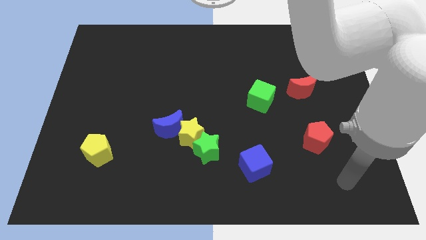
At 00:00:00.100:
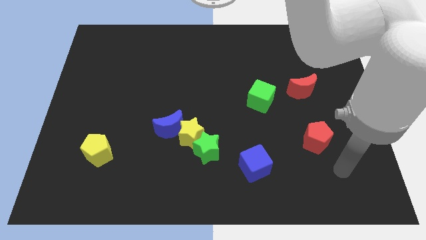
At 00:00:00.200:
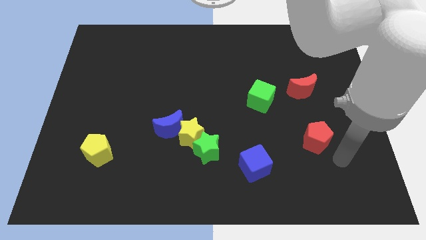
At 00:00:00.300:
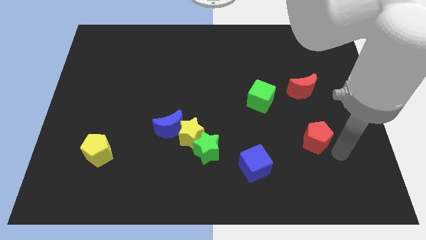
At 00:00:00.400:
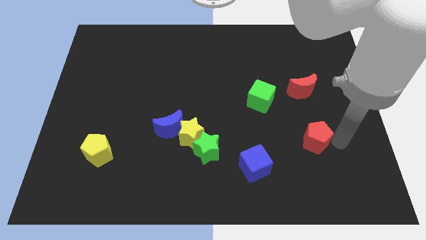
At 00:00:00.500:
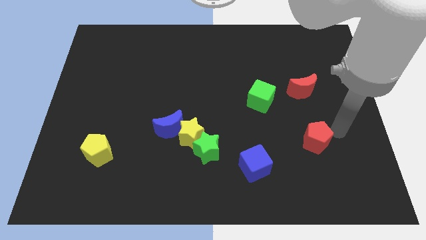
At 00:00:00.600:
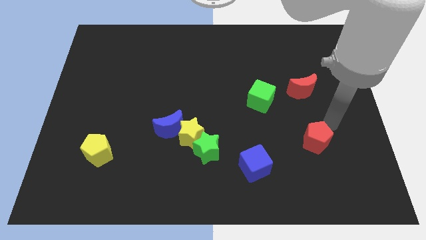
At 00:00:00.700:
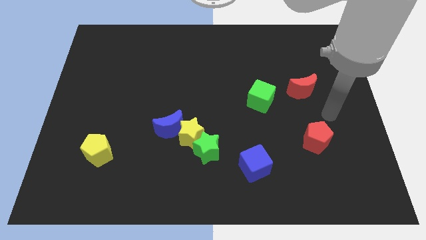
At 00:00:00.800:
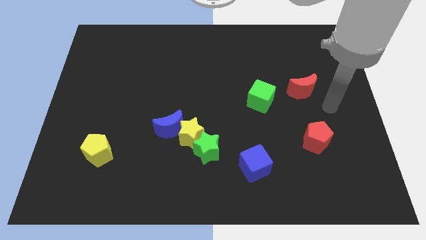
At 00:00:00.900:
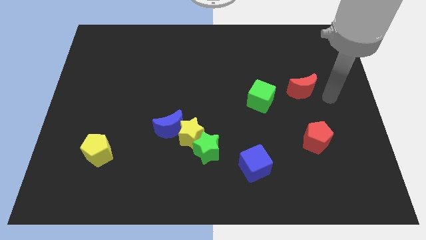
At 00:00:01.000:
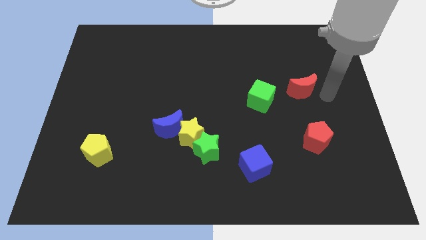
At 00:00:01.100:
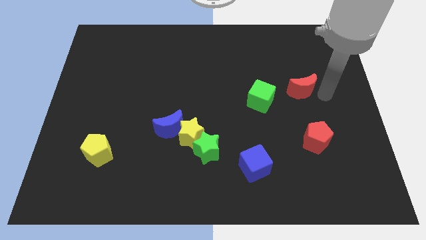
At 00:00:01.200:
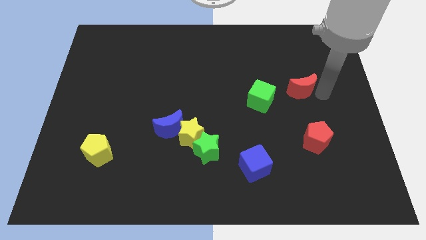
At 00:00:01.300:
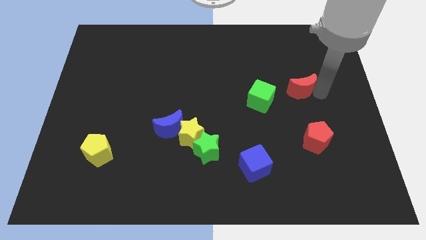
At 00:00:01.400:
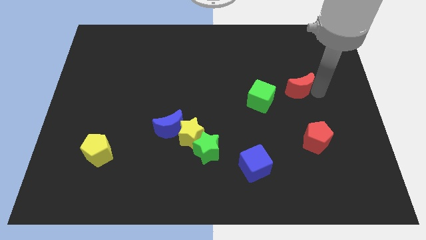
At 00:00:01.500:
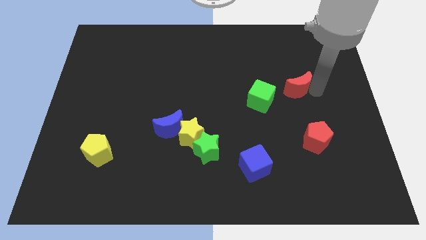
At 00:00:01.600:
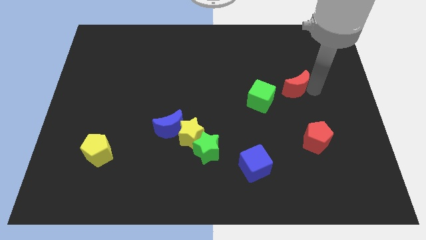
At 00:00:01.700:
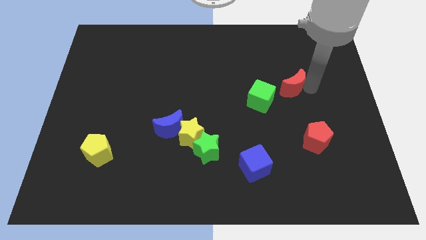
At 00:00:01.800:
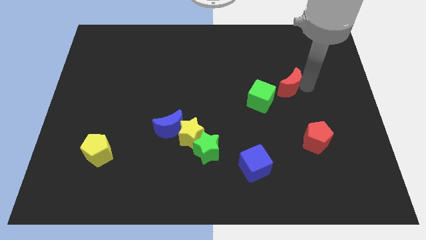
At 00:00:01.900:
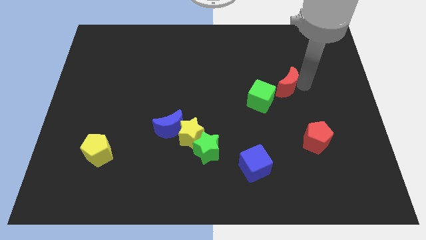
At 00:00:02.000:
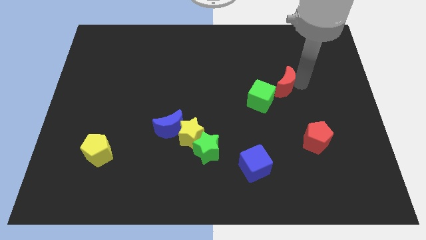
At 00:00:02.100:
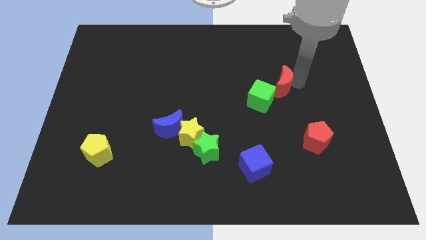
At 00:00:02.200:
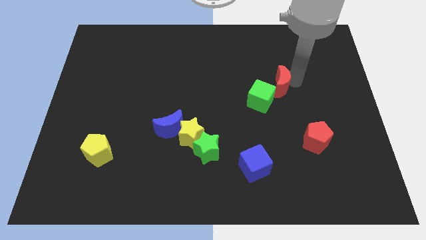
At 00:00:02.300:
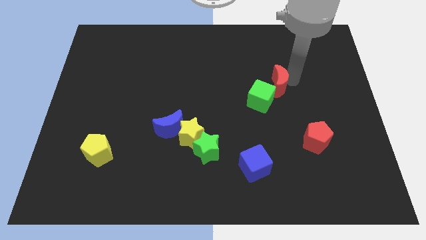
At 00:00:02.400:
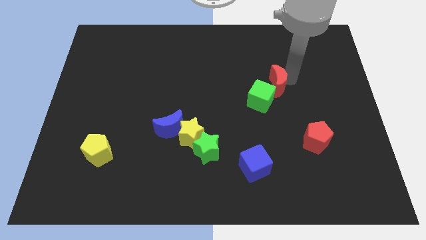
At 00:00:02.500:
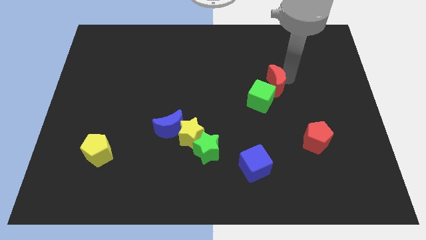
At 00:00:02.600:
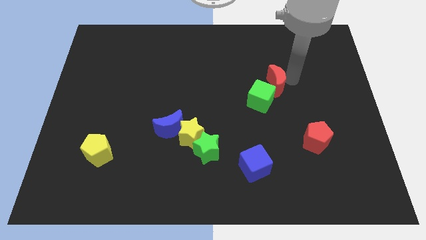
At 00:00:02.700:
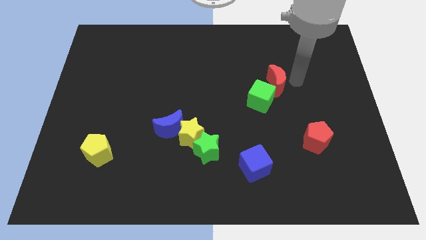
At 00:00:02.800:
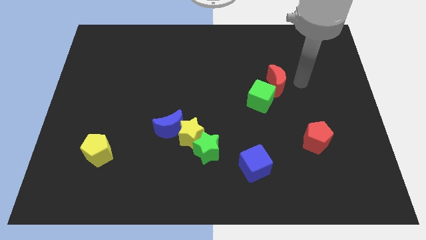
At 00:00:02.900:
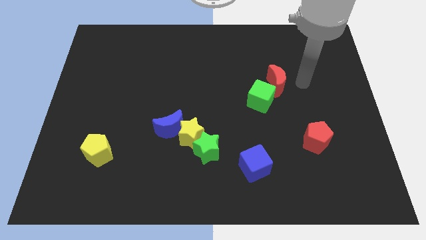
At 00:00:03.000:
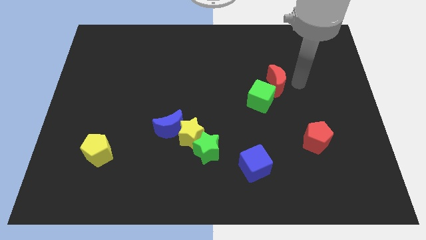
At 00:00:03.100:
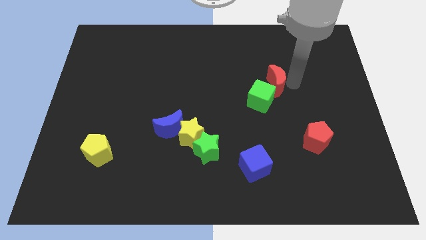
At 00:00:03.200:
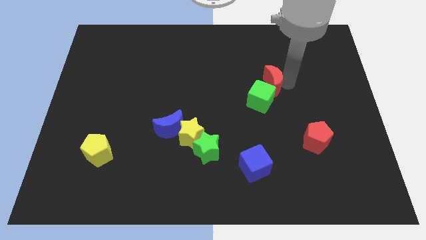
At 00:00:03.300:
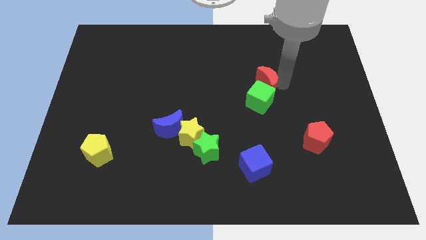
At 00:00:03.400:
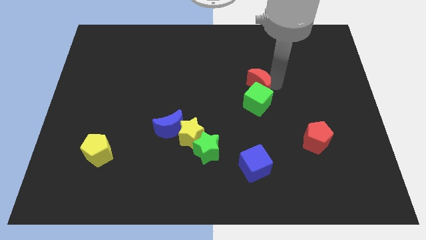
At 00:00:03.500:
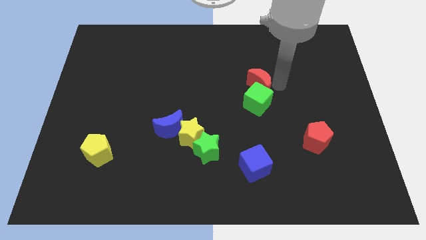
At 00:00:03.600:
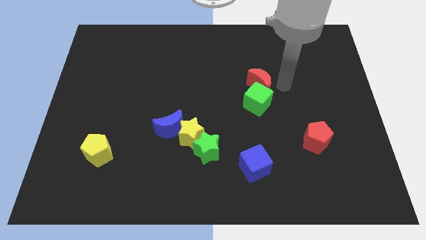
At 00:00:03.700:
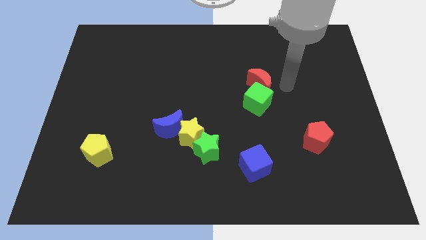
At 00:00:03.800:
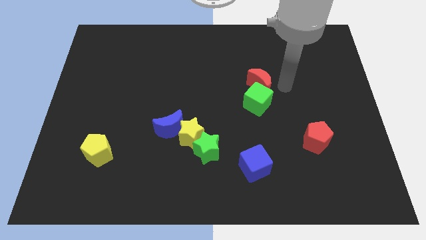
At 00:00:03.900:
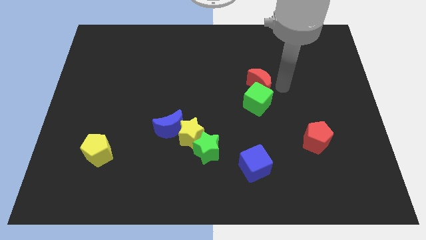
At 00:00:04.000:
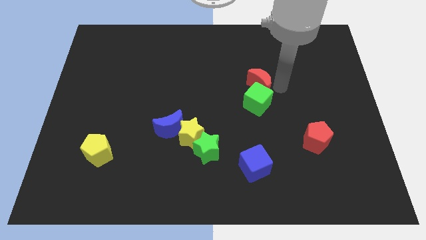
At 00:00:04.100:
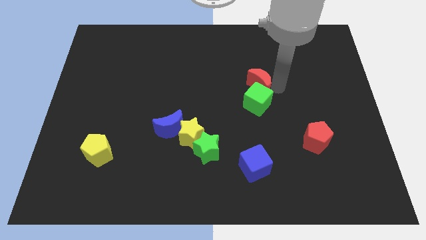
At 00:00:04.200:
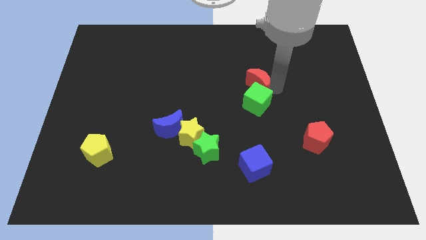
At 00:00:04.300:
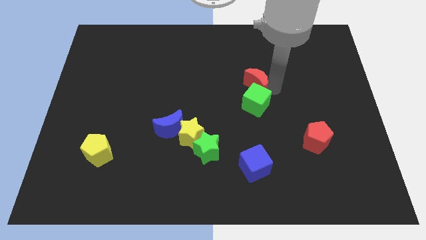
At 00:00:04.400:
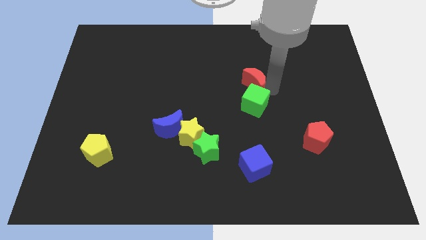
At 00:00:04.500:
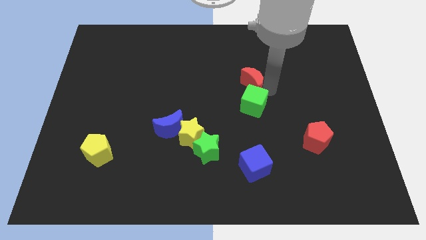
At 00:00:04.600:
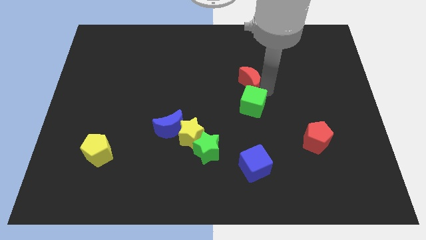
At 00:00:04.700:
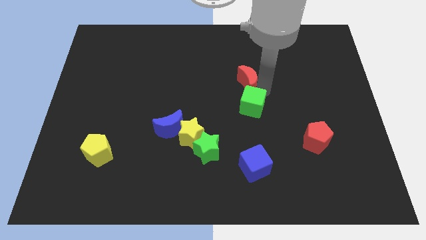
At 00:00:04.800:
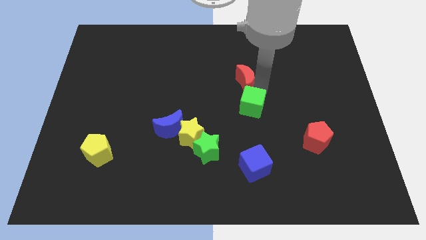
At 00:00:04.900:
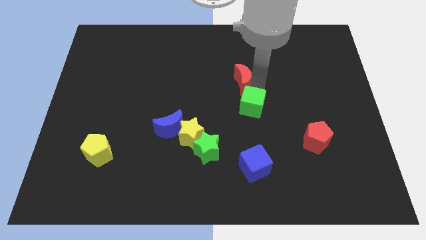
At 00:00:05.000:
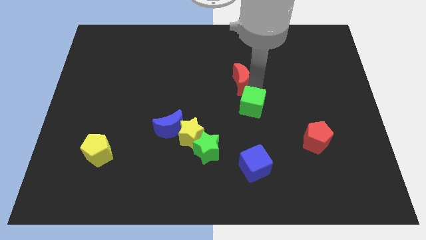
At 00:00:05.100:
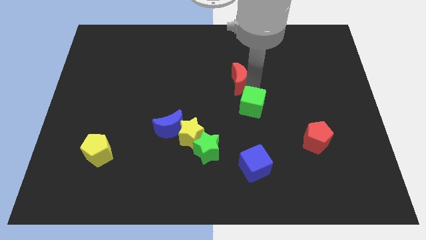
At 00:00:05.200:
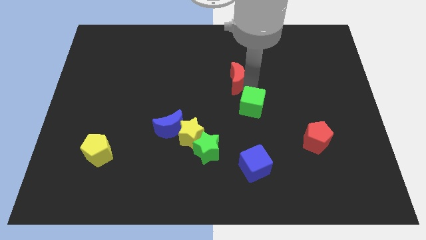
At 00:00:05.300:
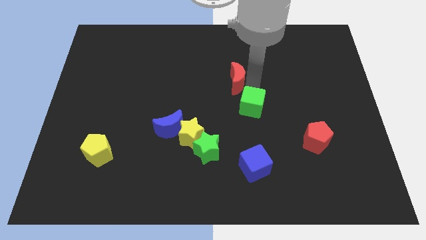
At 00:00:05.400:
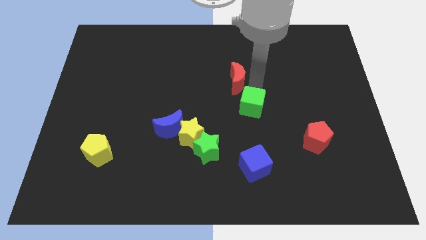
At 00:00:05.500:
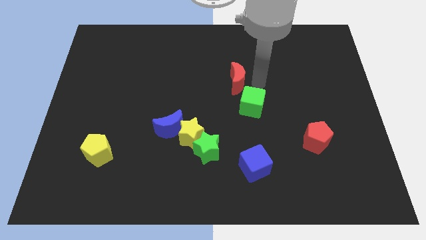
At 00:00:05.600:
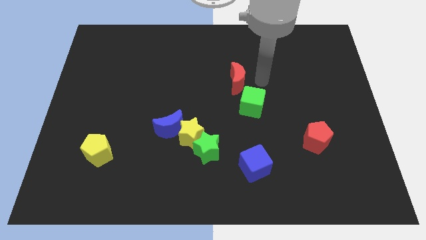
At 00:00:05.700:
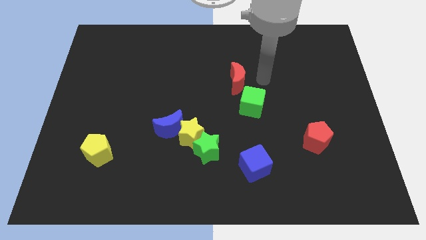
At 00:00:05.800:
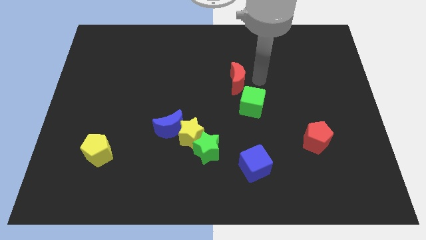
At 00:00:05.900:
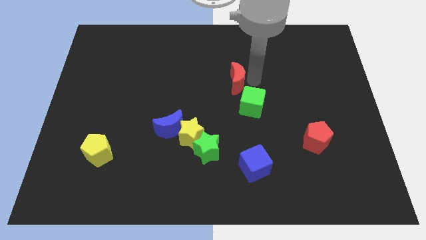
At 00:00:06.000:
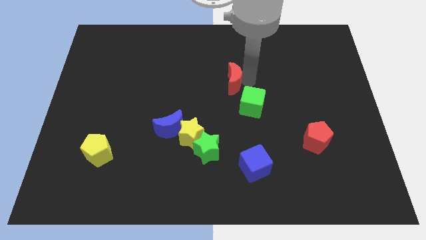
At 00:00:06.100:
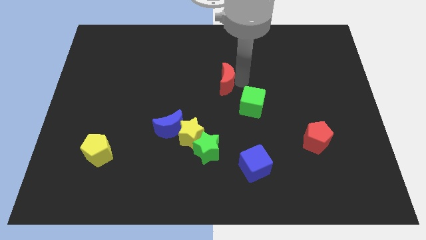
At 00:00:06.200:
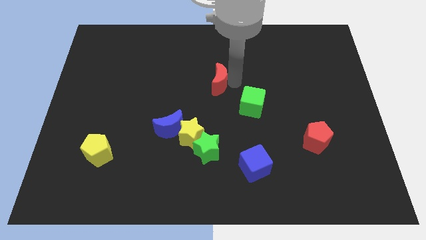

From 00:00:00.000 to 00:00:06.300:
push the red moon to the left

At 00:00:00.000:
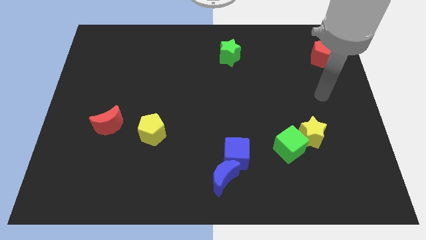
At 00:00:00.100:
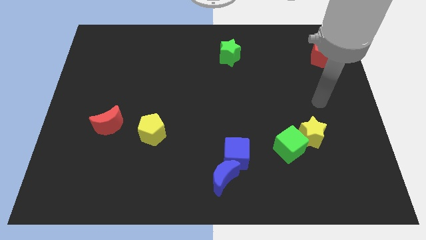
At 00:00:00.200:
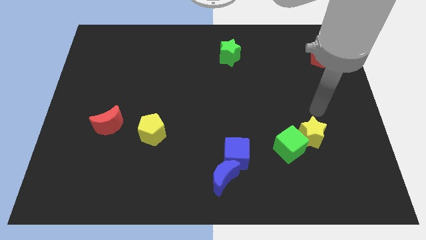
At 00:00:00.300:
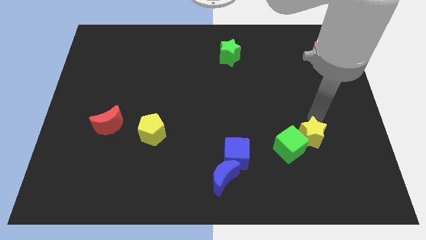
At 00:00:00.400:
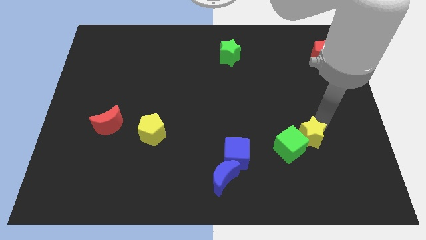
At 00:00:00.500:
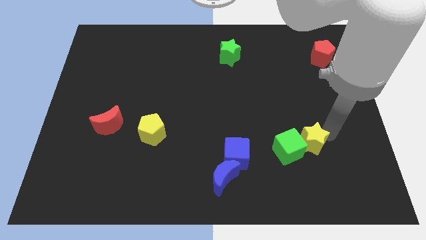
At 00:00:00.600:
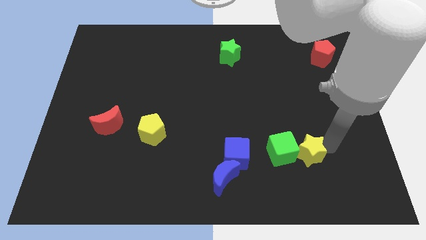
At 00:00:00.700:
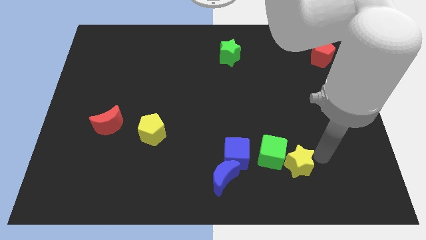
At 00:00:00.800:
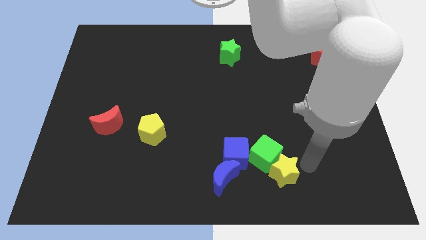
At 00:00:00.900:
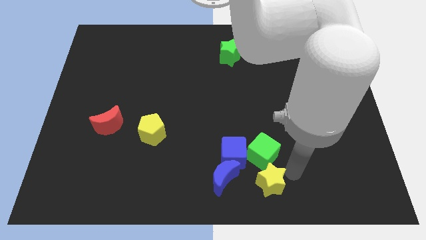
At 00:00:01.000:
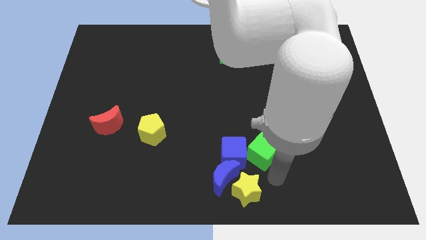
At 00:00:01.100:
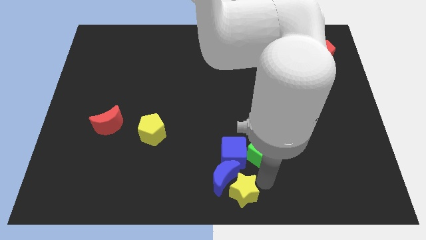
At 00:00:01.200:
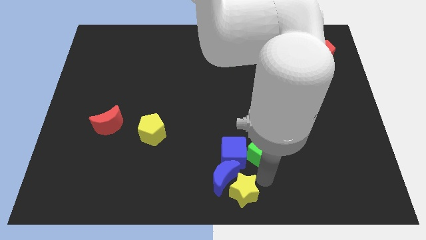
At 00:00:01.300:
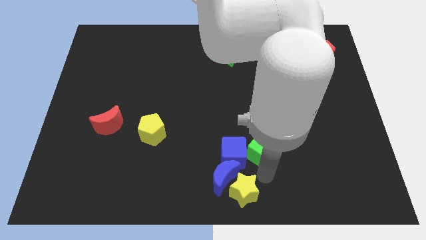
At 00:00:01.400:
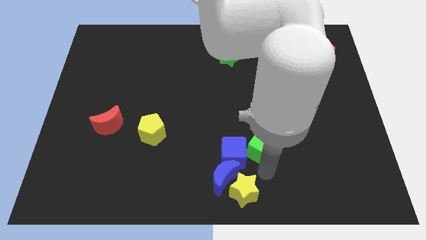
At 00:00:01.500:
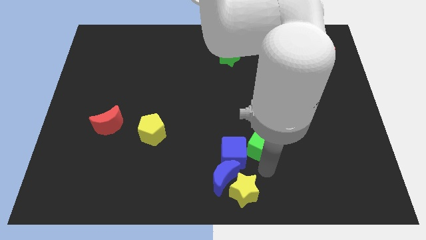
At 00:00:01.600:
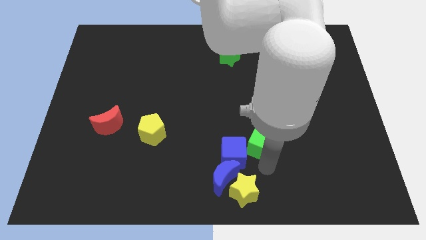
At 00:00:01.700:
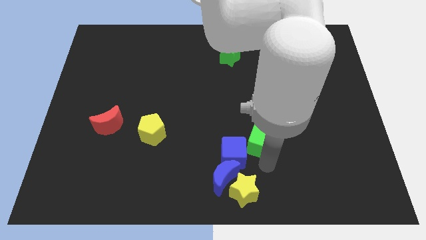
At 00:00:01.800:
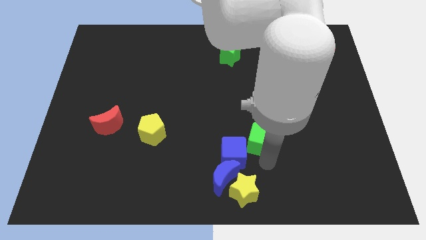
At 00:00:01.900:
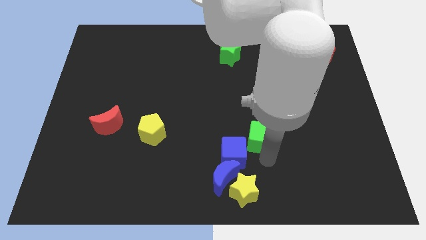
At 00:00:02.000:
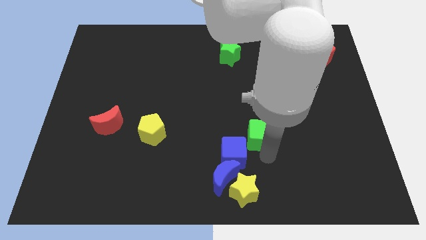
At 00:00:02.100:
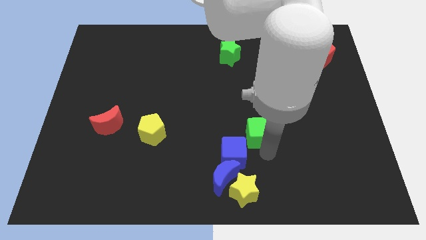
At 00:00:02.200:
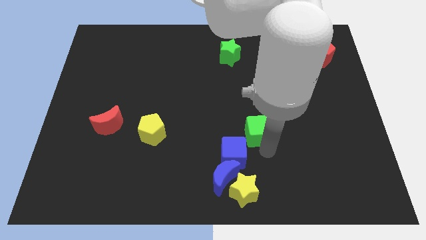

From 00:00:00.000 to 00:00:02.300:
slightly move the green cube upwards and then left
